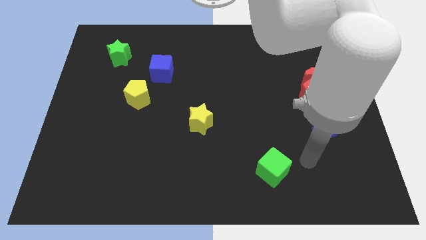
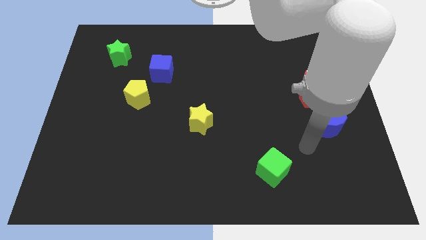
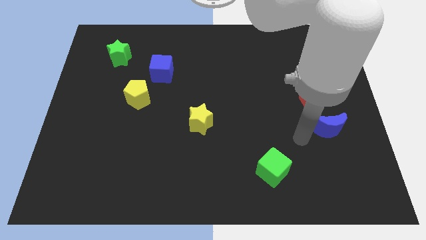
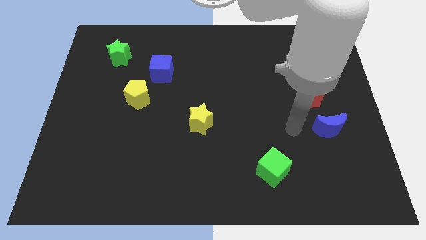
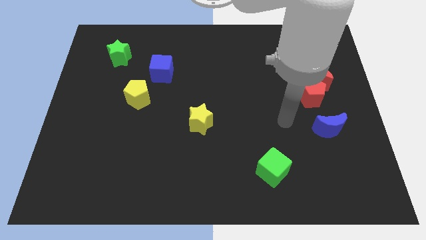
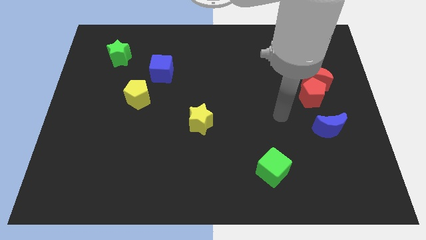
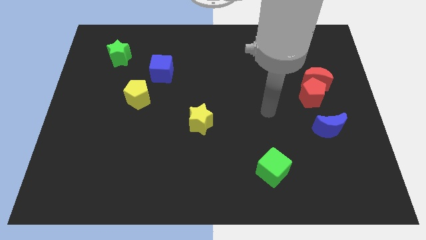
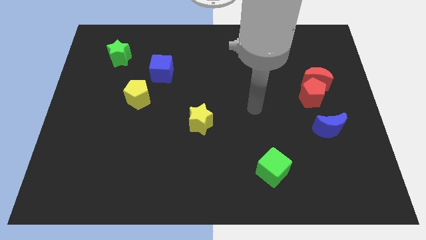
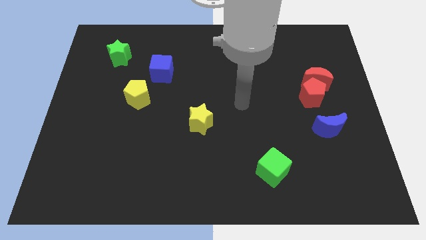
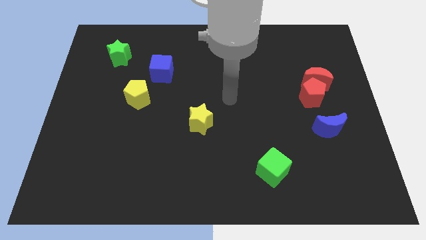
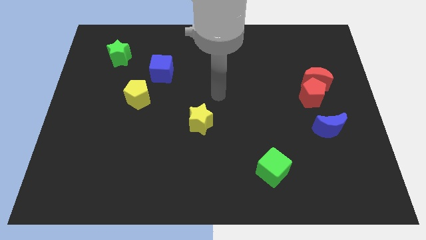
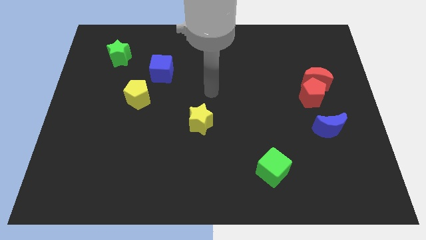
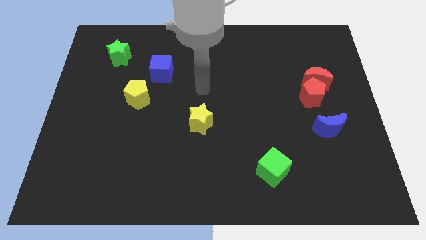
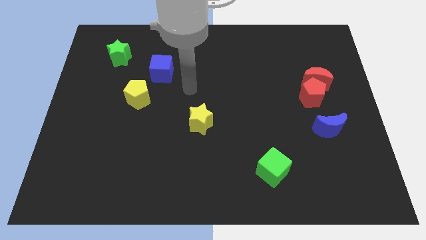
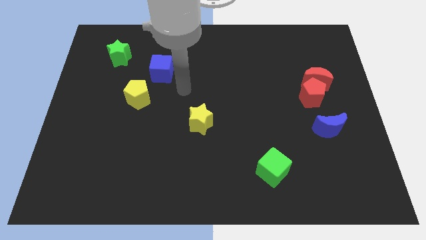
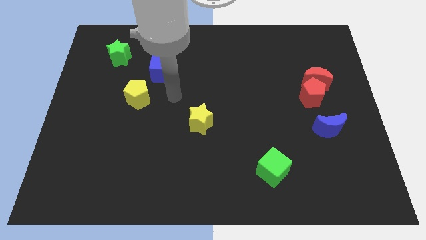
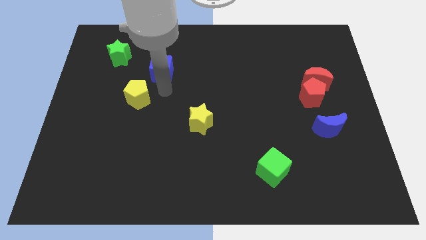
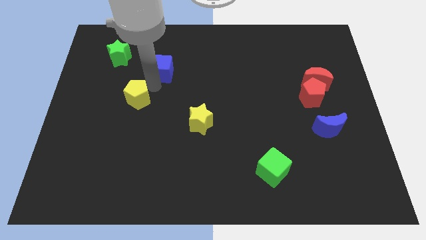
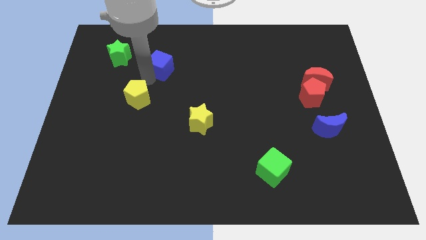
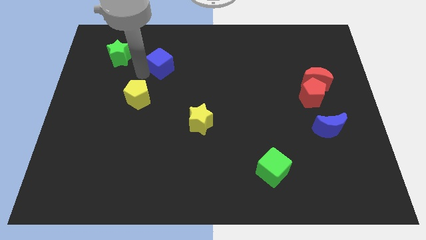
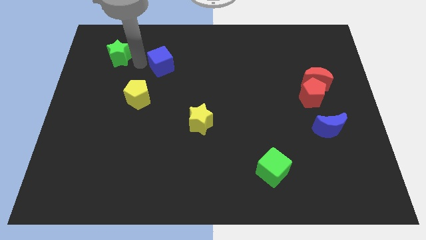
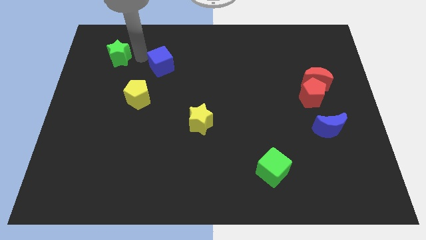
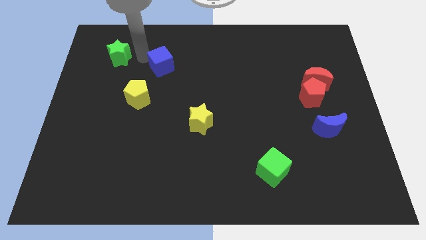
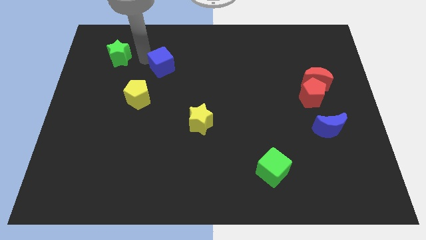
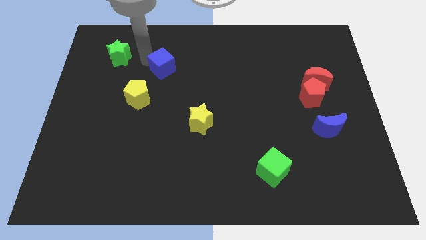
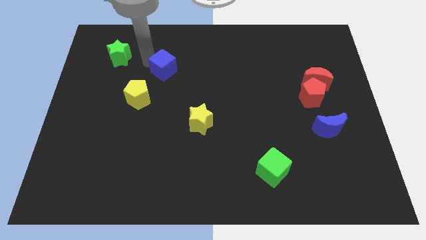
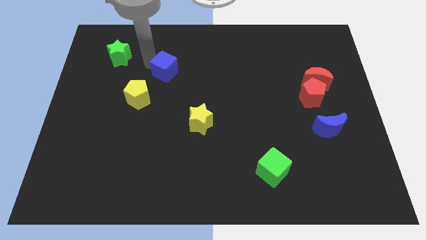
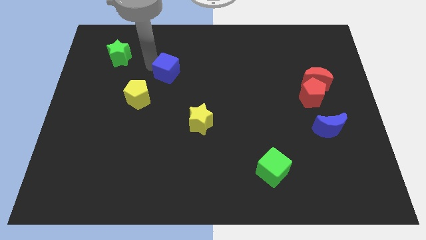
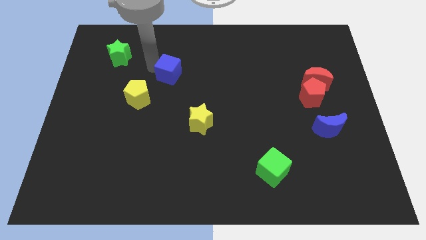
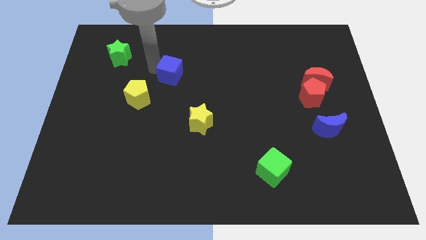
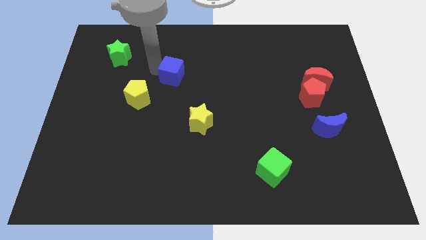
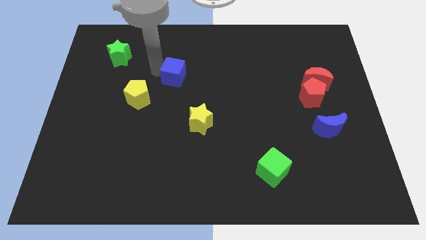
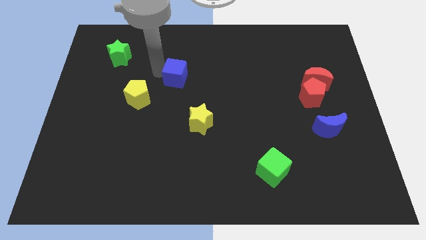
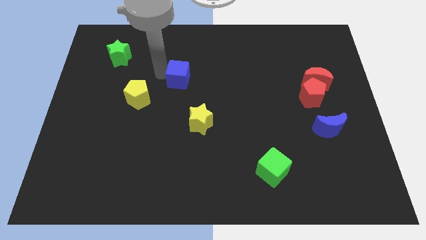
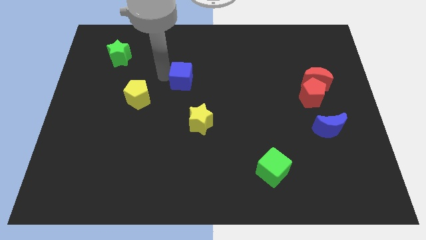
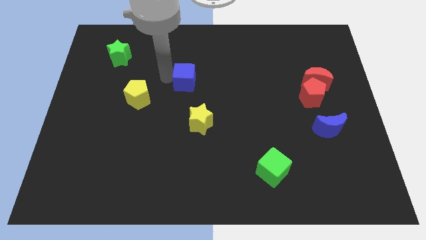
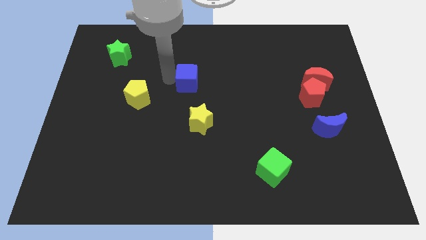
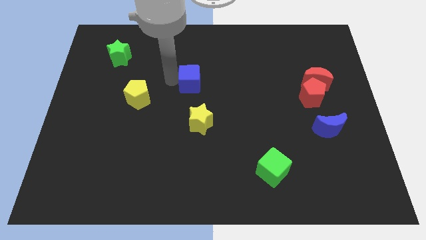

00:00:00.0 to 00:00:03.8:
move the blue cube right a little

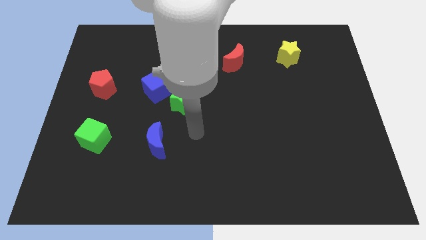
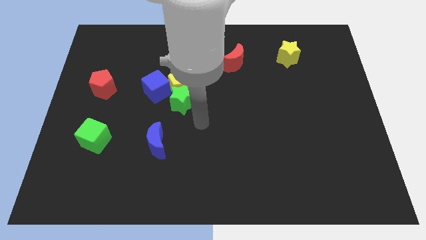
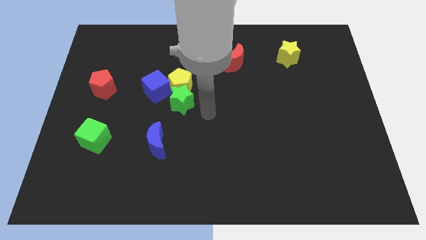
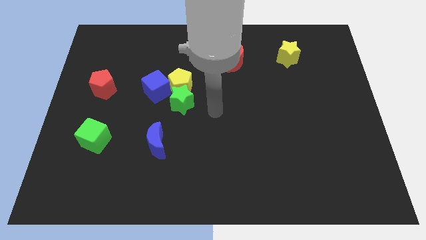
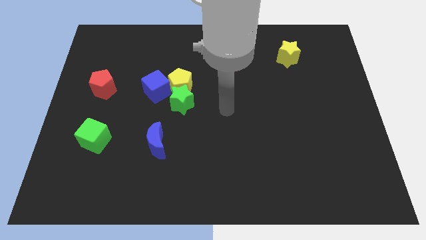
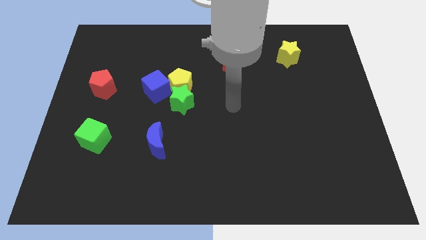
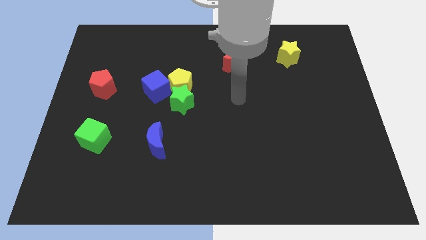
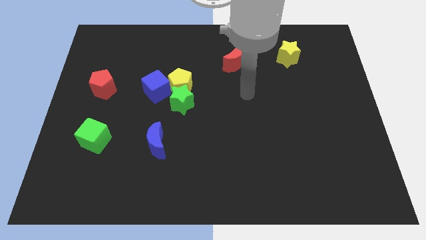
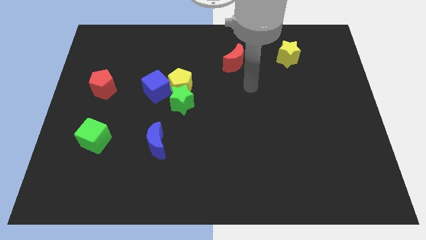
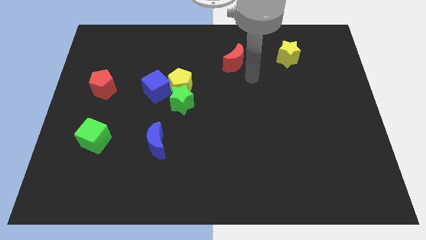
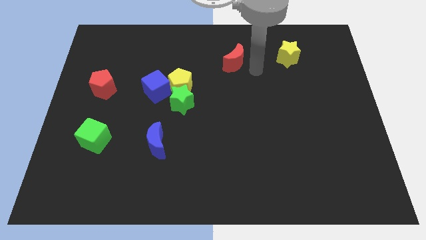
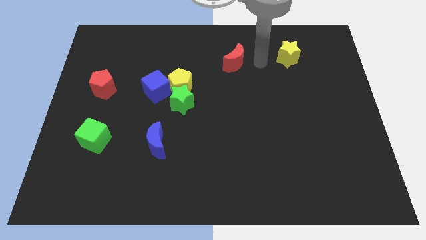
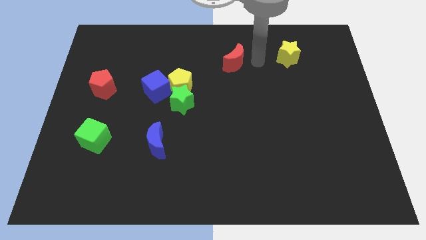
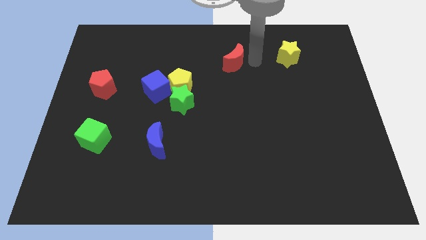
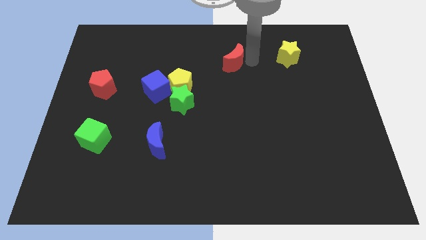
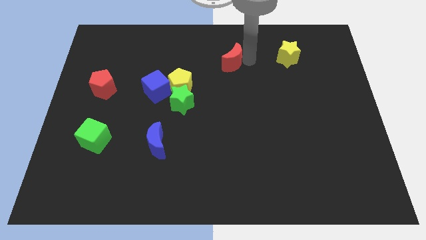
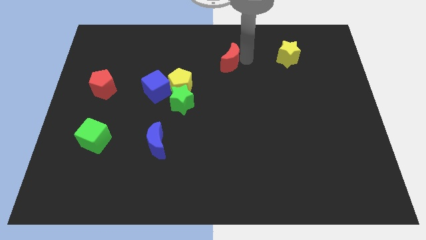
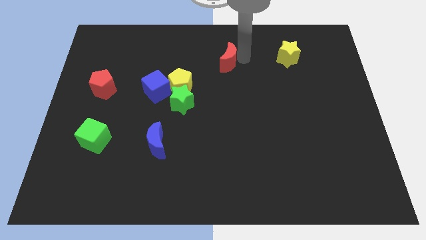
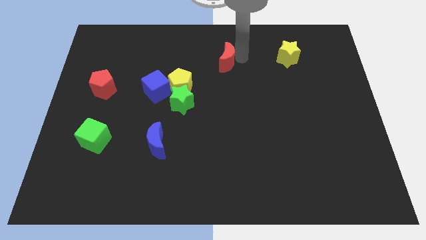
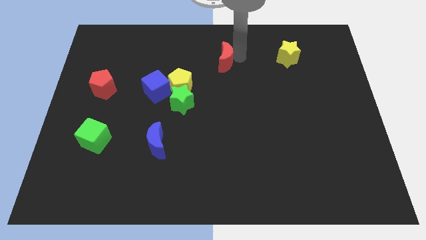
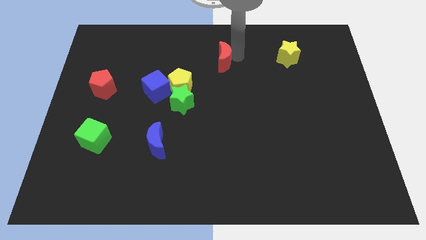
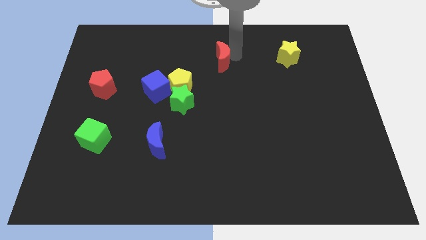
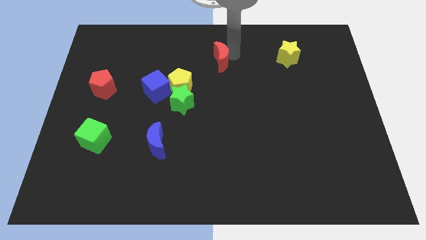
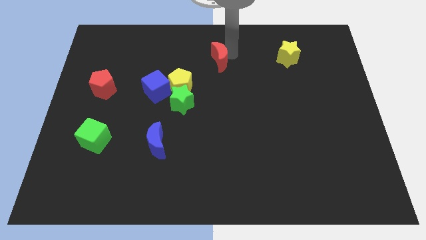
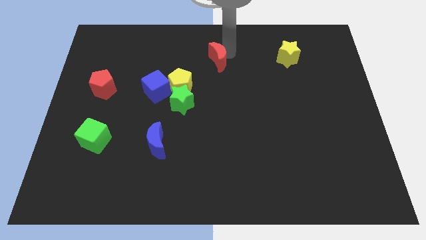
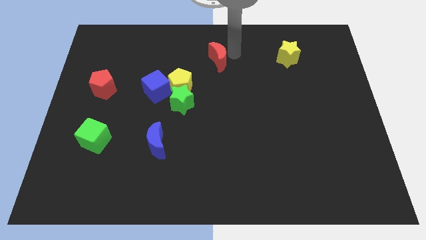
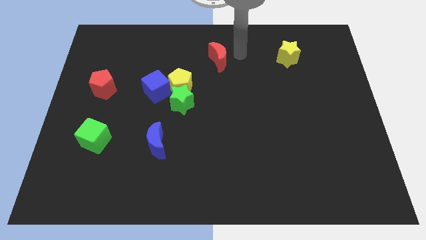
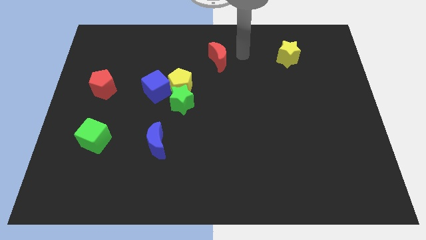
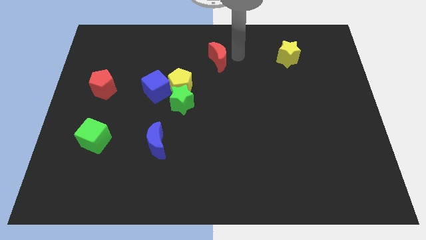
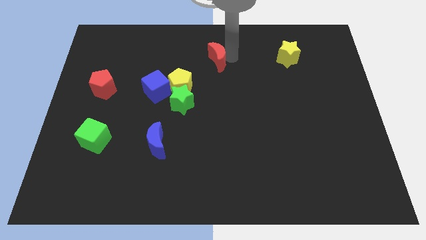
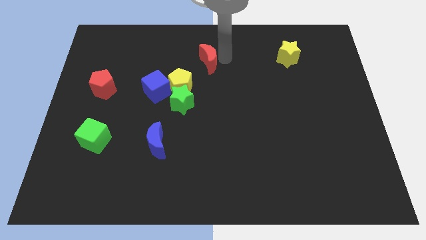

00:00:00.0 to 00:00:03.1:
slightly push the red moon left

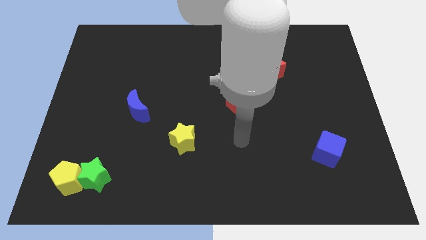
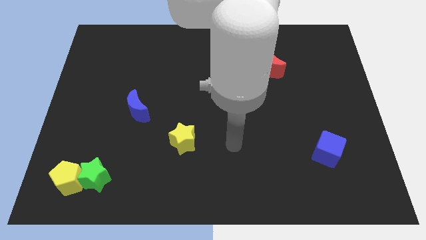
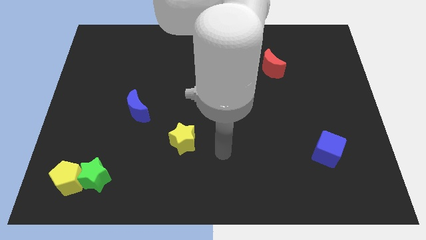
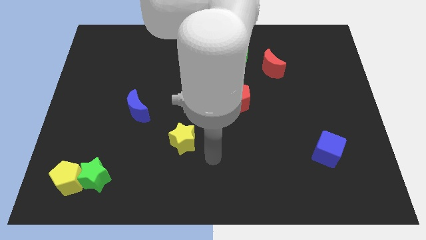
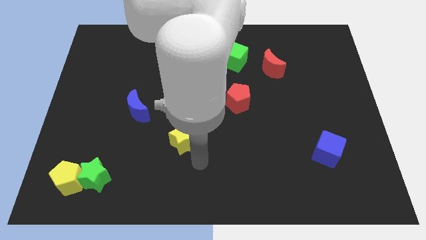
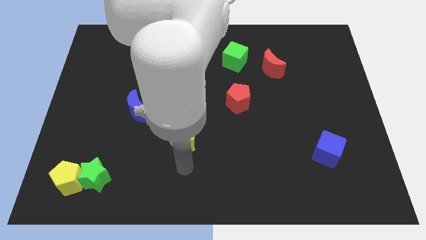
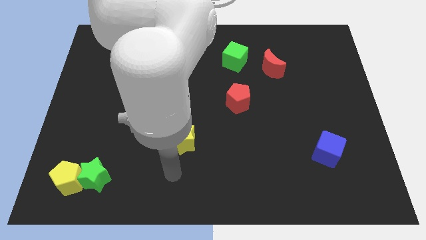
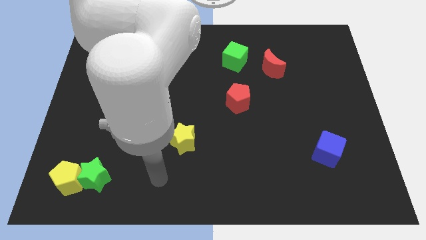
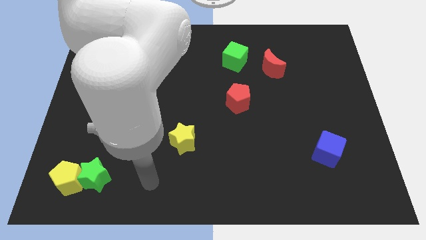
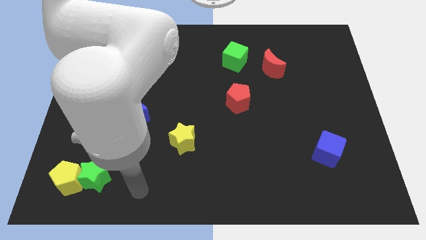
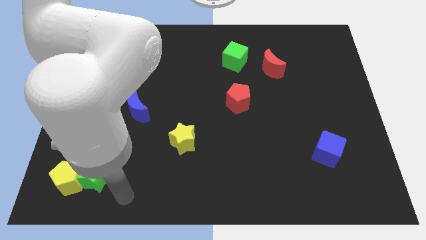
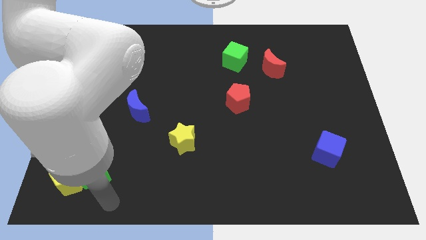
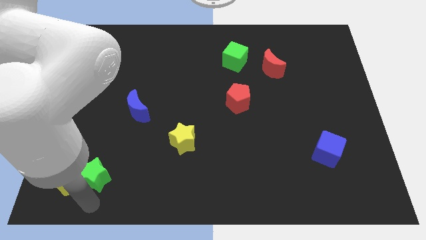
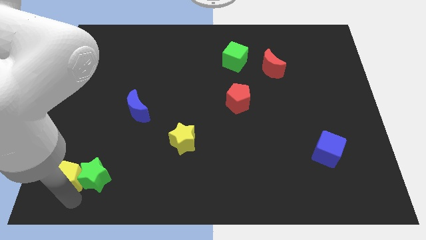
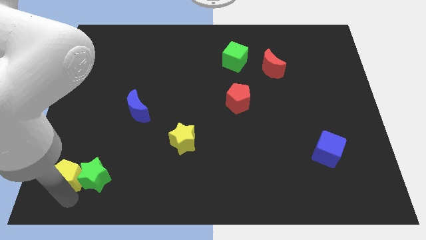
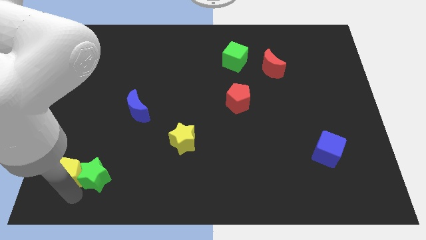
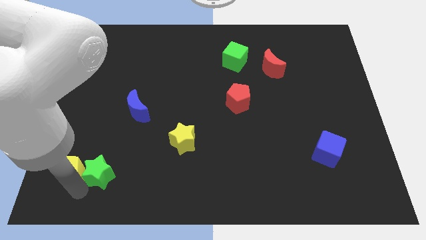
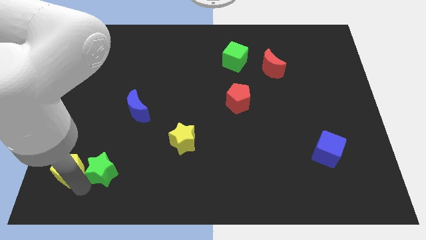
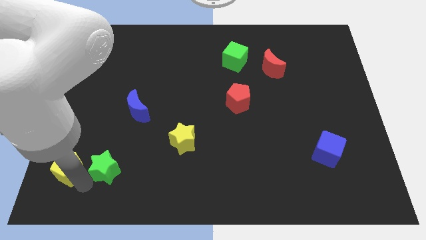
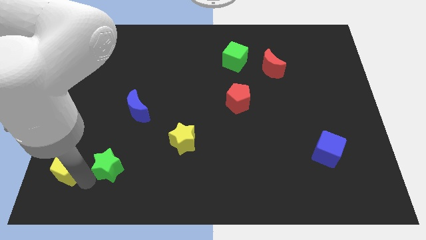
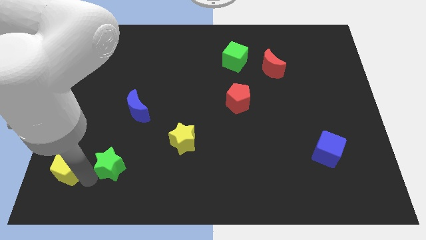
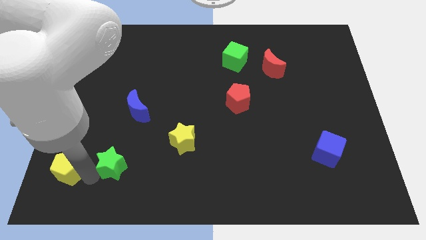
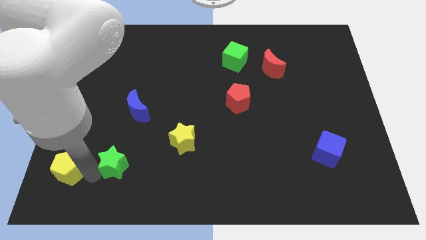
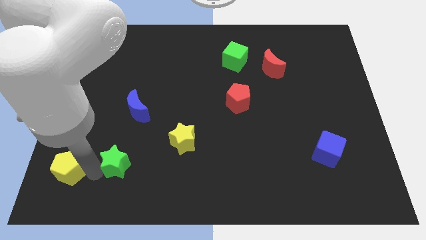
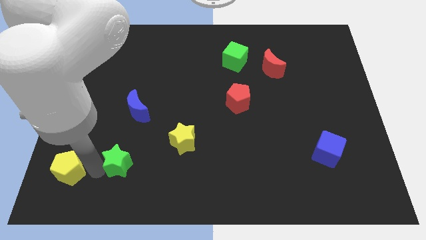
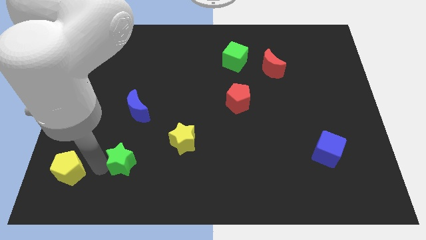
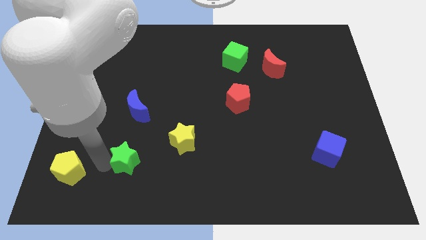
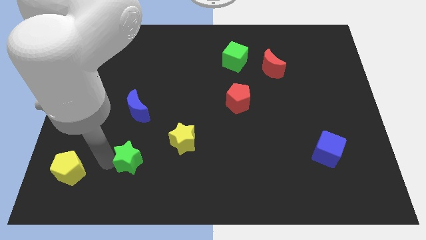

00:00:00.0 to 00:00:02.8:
slightly move the green star upwards and then to the right
